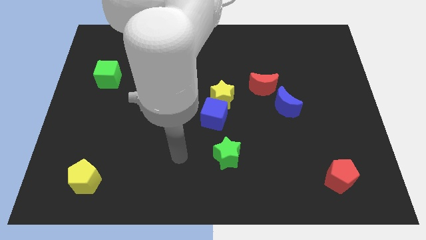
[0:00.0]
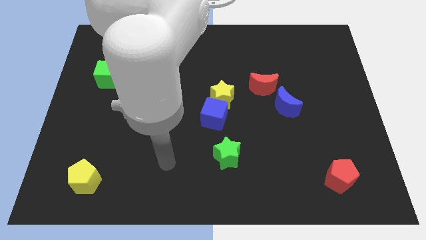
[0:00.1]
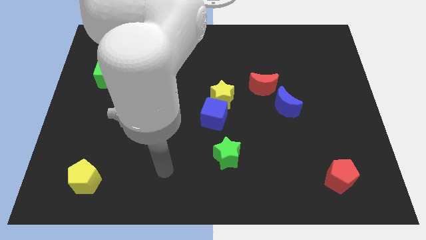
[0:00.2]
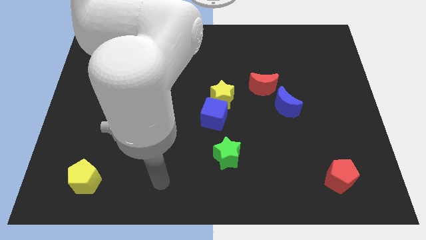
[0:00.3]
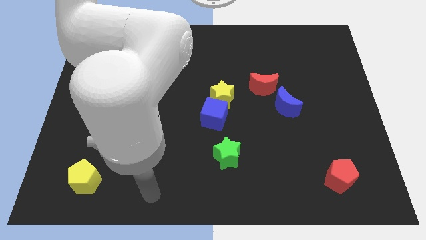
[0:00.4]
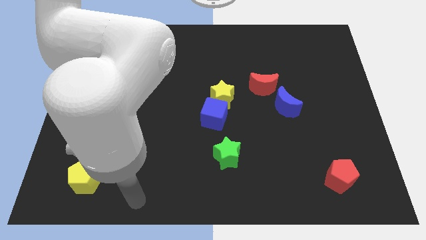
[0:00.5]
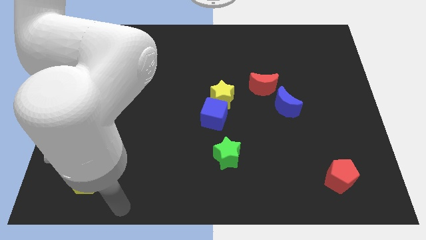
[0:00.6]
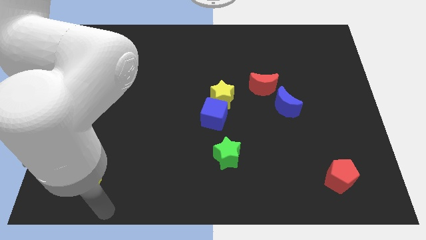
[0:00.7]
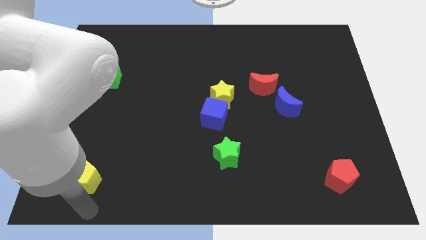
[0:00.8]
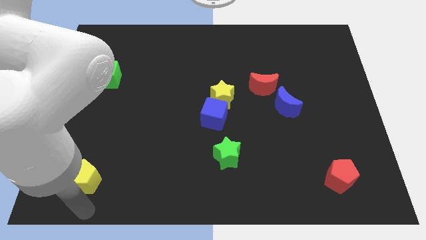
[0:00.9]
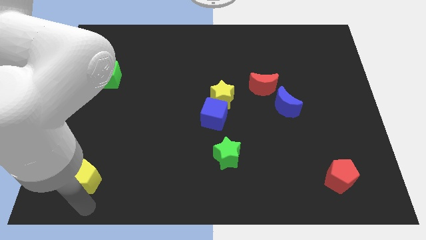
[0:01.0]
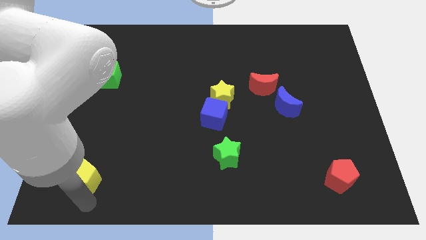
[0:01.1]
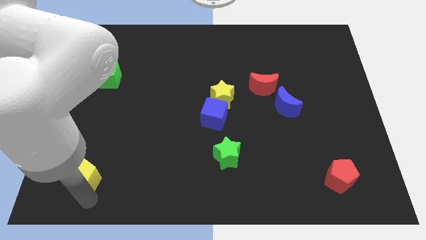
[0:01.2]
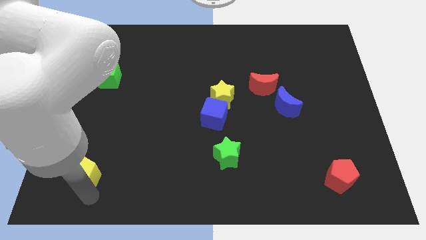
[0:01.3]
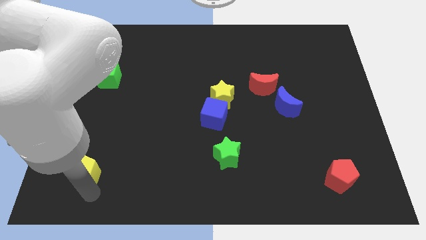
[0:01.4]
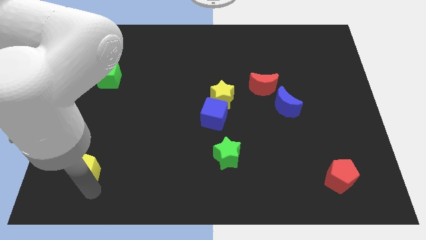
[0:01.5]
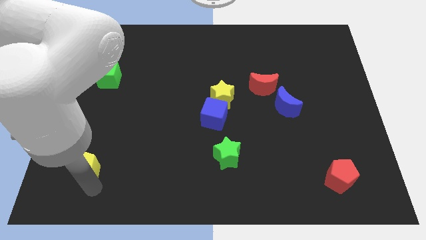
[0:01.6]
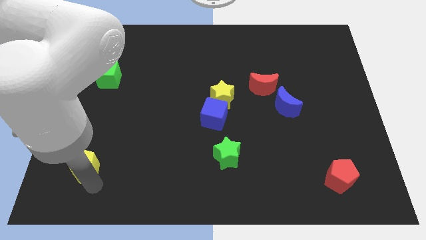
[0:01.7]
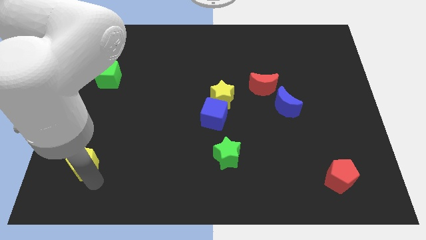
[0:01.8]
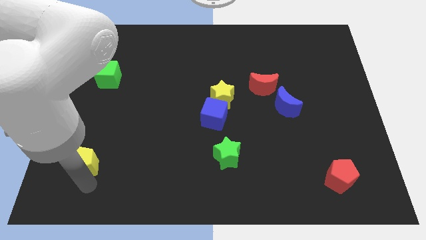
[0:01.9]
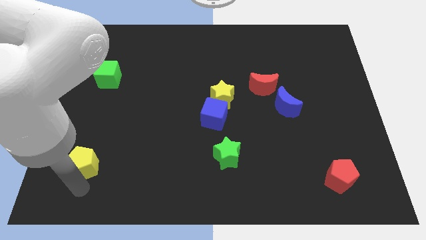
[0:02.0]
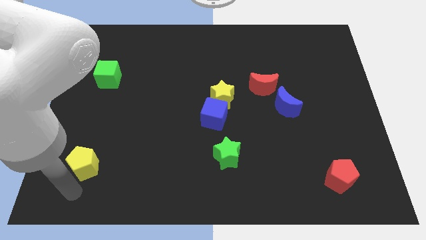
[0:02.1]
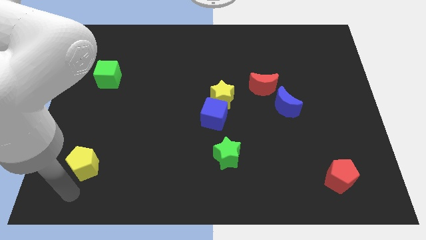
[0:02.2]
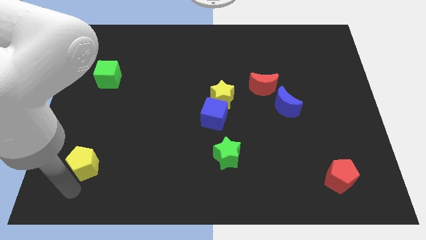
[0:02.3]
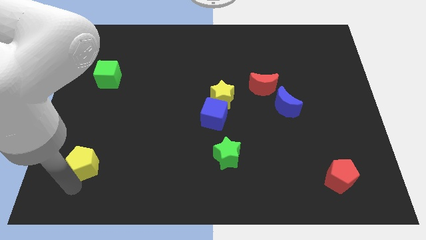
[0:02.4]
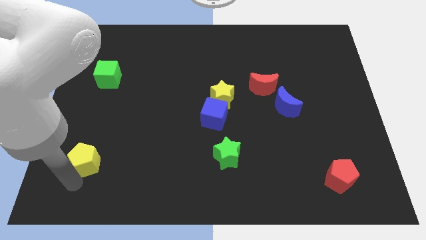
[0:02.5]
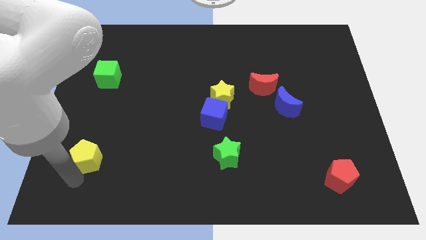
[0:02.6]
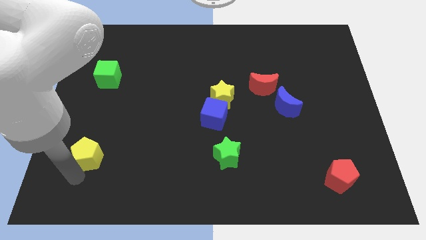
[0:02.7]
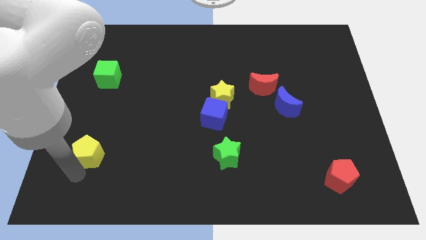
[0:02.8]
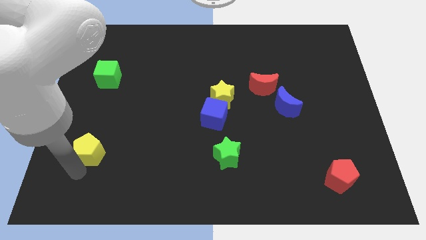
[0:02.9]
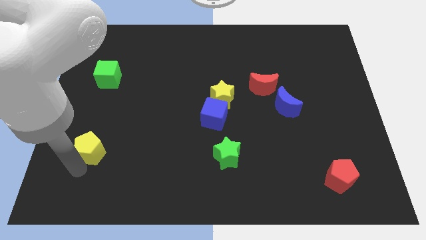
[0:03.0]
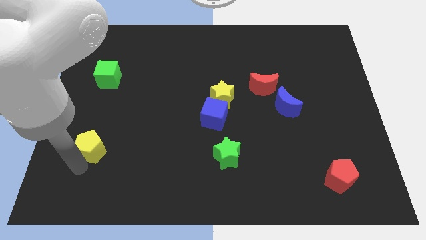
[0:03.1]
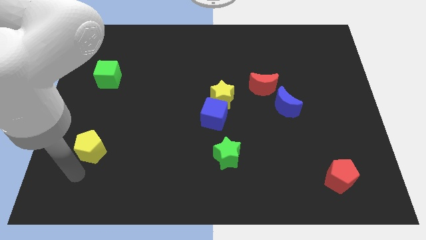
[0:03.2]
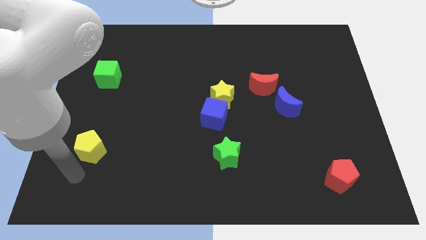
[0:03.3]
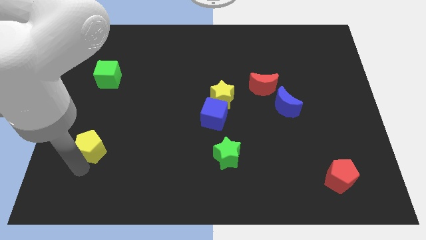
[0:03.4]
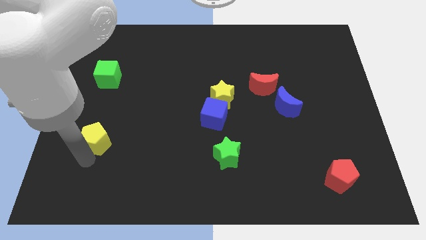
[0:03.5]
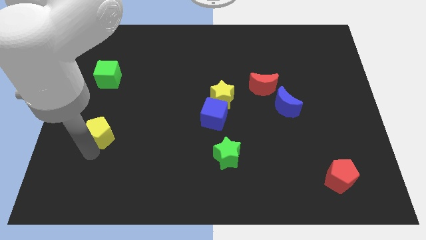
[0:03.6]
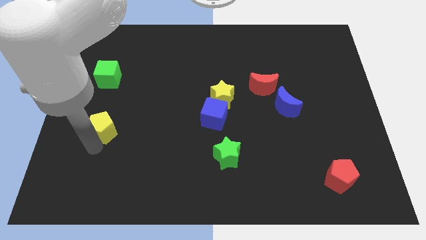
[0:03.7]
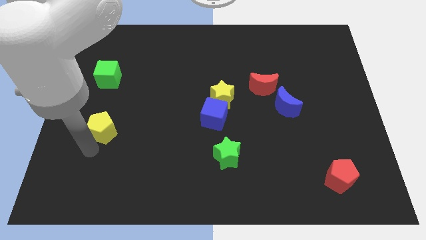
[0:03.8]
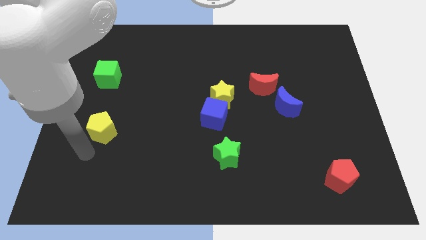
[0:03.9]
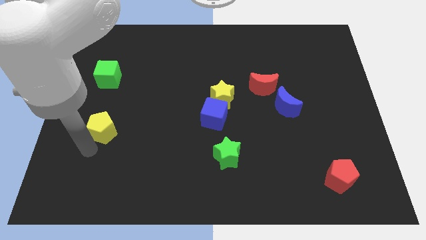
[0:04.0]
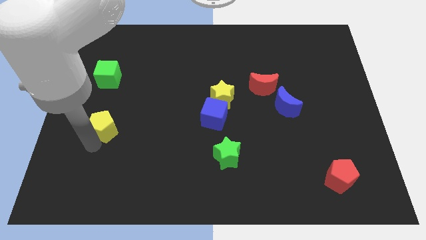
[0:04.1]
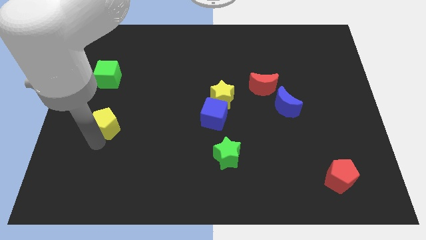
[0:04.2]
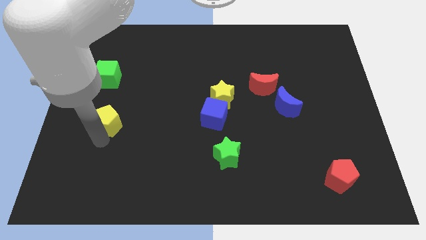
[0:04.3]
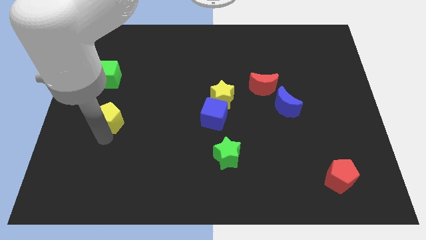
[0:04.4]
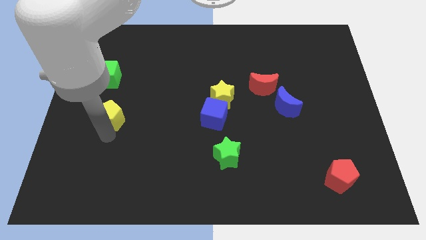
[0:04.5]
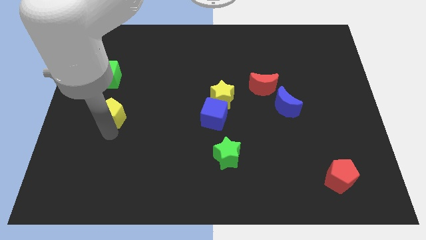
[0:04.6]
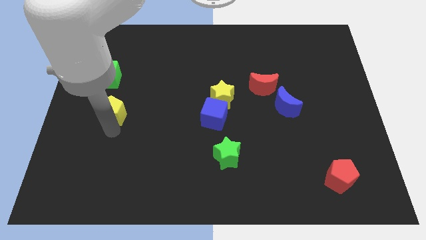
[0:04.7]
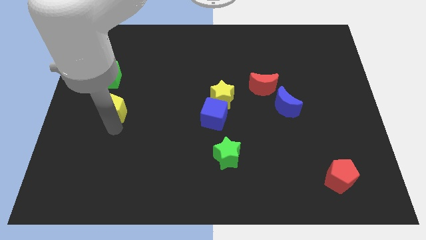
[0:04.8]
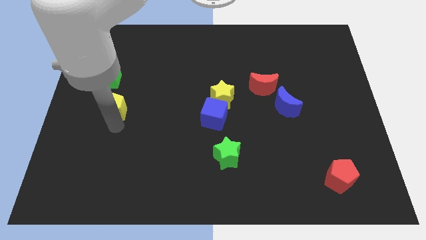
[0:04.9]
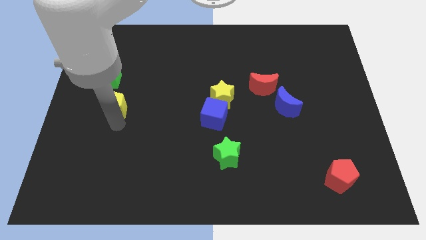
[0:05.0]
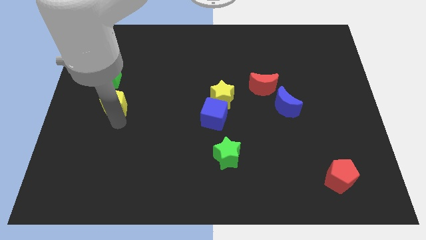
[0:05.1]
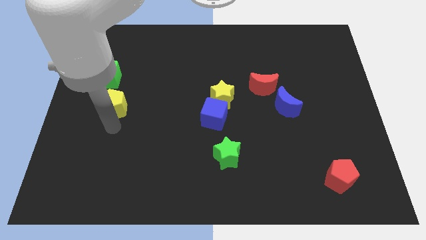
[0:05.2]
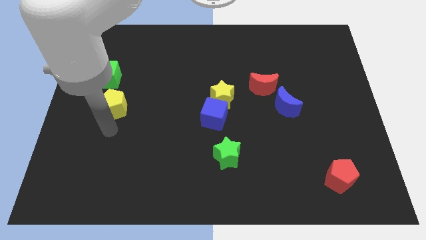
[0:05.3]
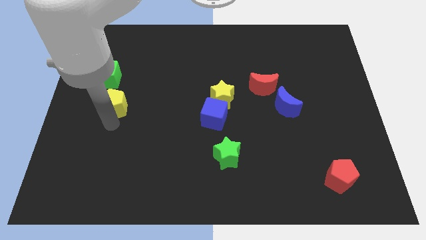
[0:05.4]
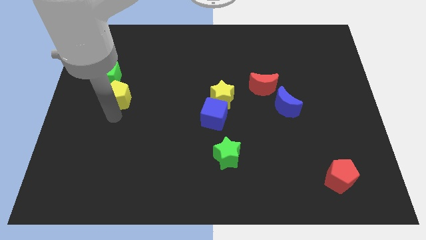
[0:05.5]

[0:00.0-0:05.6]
move the yellow pentagon upwards

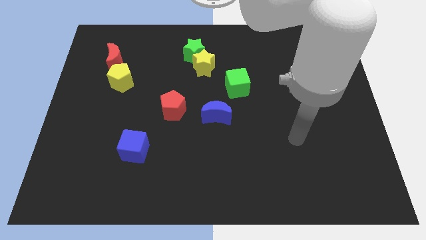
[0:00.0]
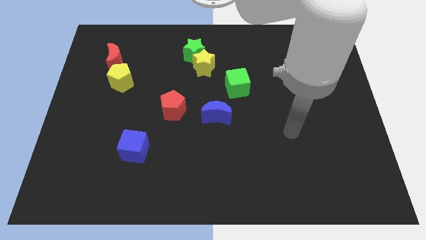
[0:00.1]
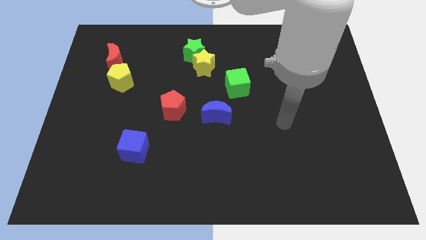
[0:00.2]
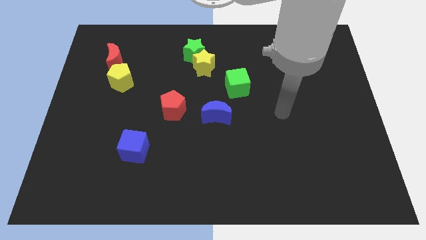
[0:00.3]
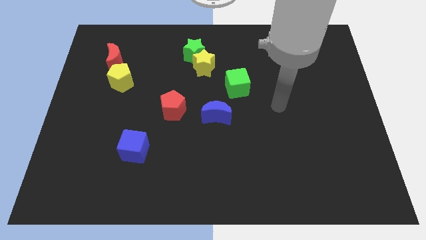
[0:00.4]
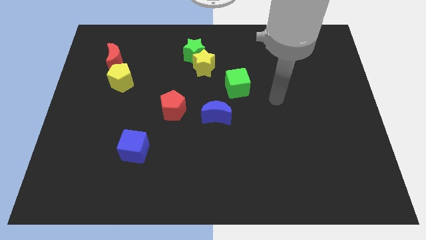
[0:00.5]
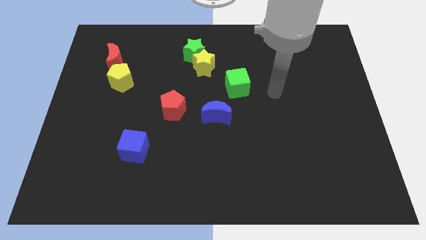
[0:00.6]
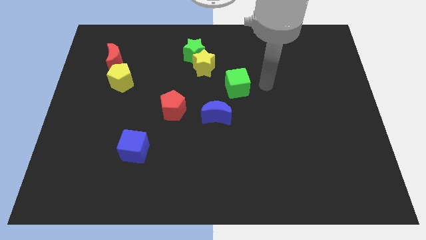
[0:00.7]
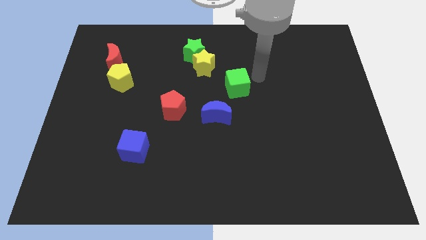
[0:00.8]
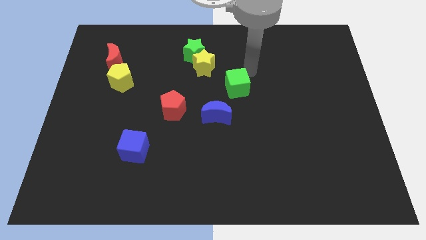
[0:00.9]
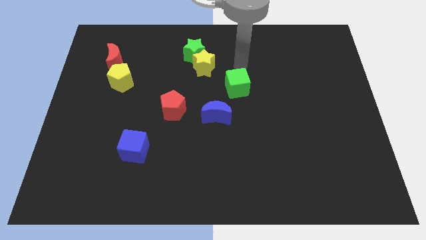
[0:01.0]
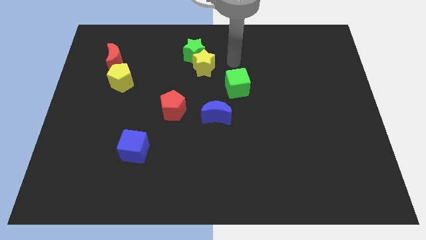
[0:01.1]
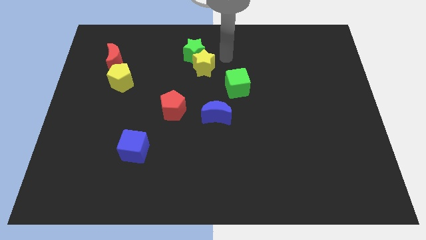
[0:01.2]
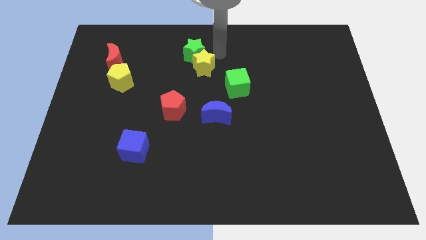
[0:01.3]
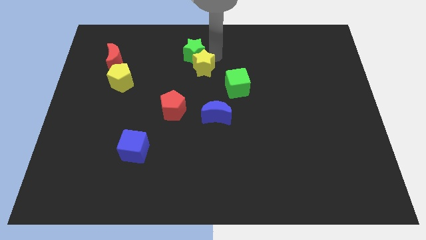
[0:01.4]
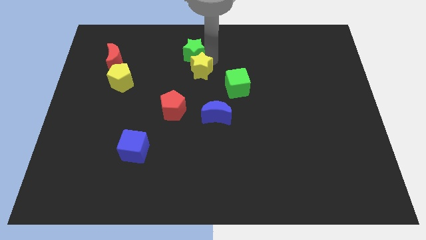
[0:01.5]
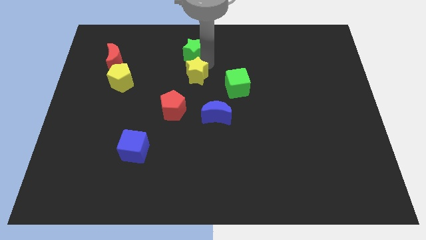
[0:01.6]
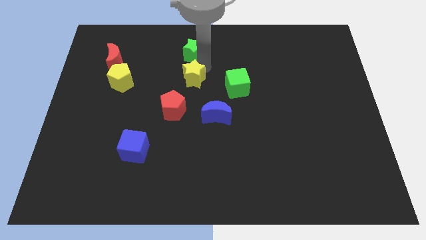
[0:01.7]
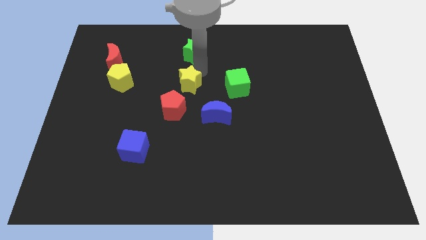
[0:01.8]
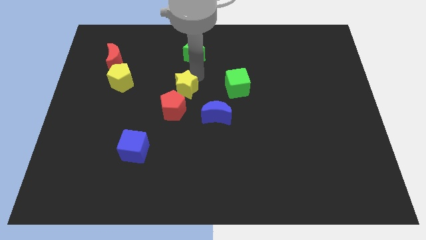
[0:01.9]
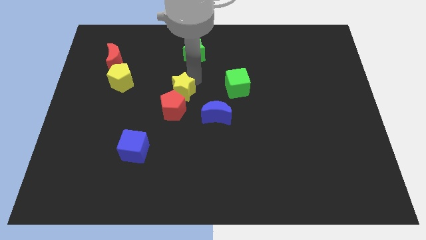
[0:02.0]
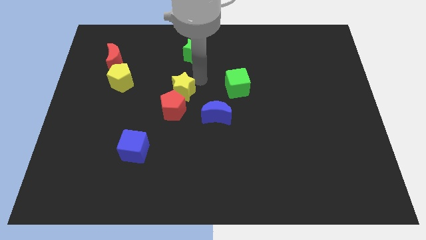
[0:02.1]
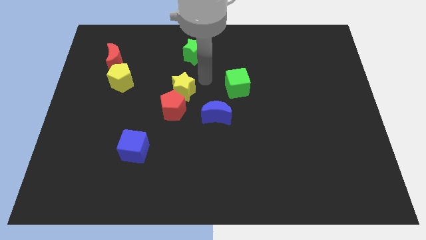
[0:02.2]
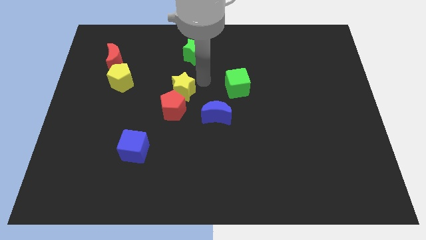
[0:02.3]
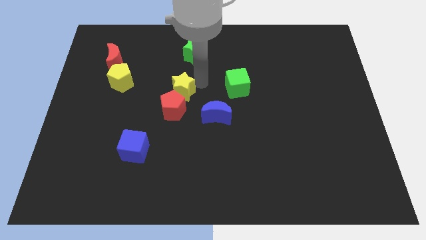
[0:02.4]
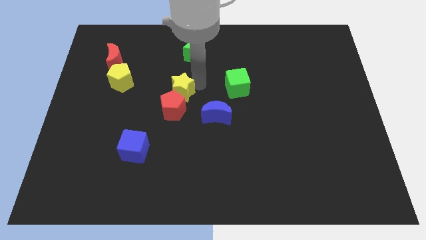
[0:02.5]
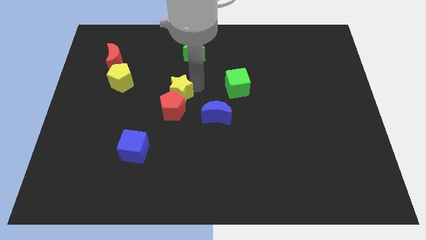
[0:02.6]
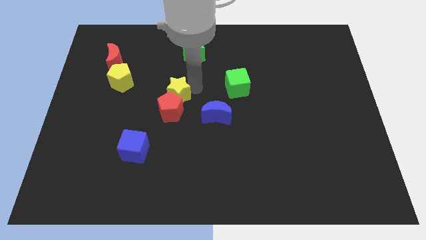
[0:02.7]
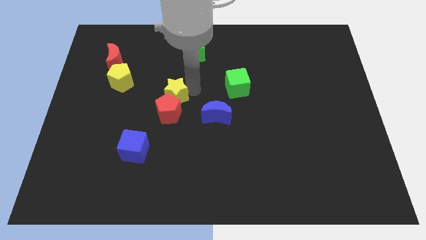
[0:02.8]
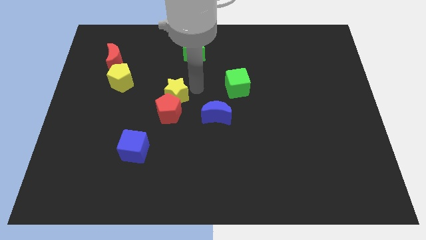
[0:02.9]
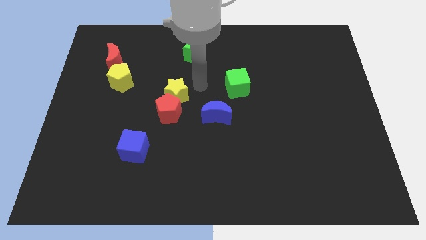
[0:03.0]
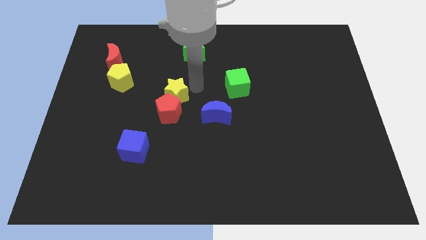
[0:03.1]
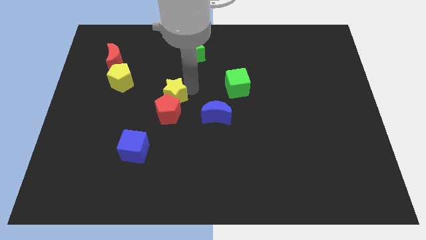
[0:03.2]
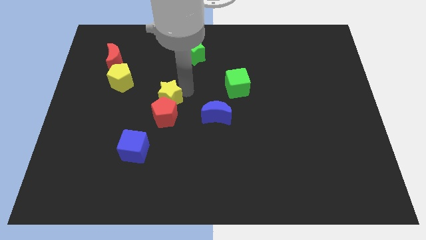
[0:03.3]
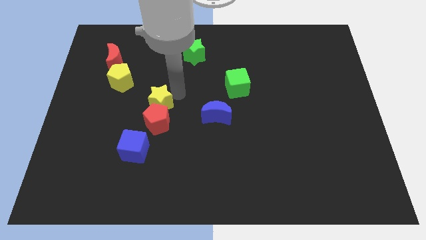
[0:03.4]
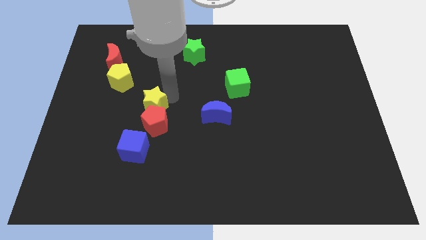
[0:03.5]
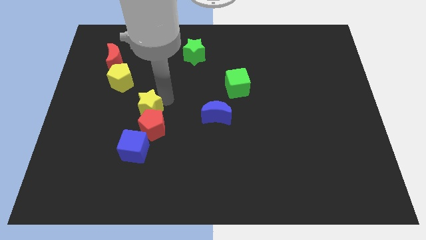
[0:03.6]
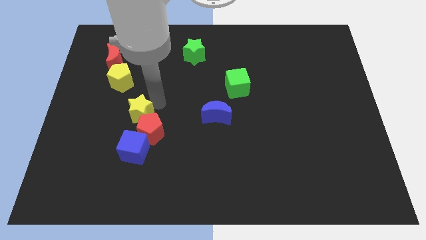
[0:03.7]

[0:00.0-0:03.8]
move the yellow star diagonally downwards and to the left
